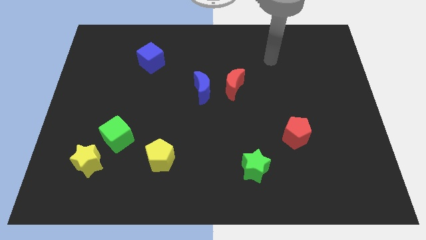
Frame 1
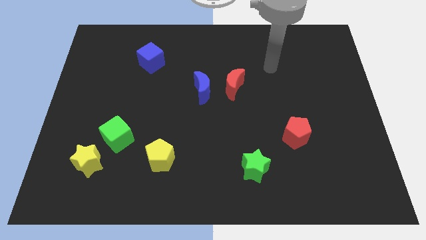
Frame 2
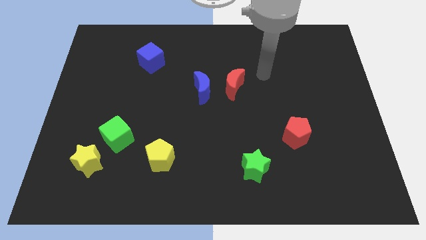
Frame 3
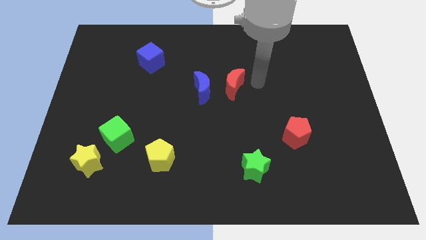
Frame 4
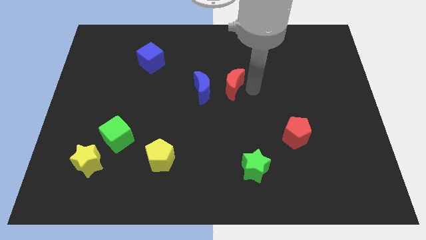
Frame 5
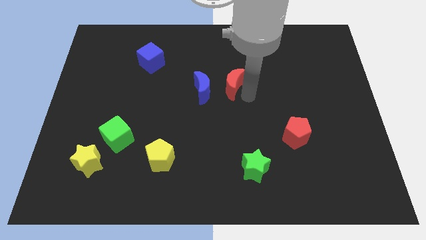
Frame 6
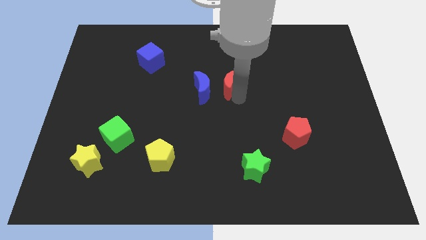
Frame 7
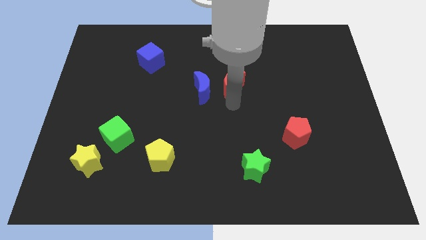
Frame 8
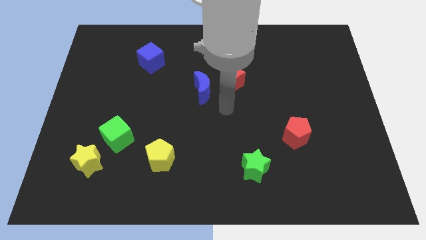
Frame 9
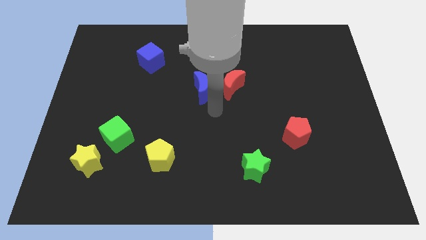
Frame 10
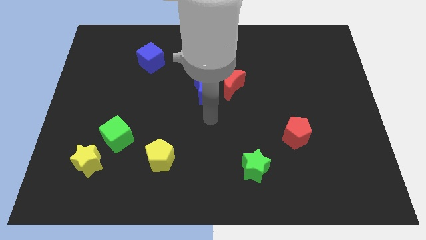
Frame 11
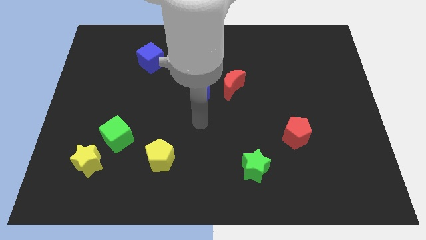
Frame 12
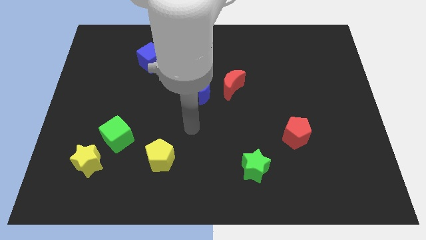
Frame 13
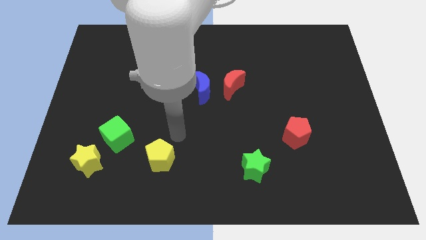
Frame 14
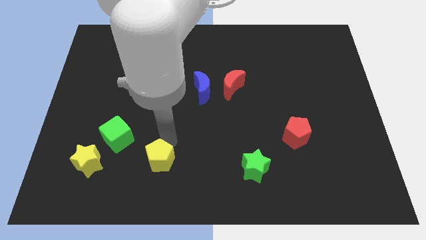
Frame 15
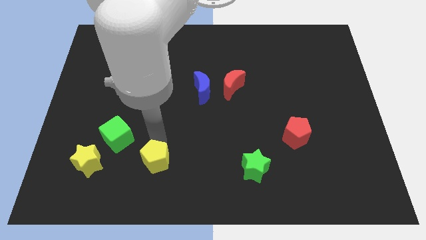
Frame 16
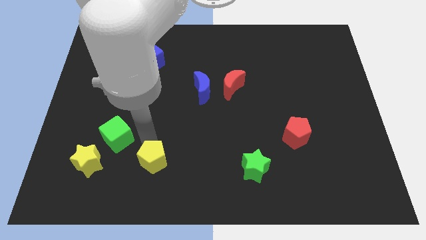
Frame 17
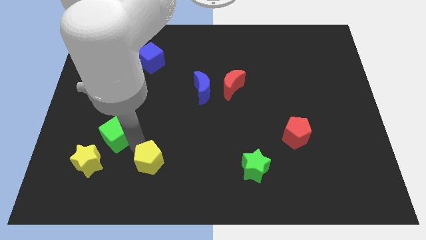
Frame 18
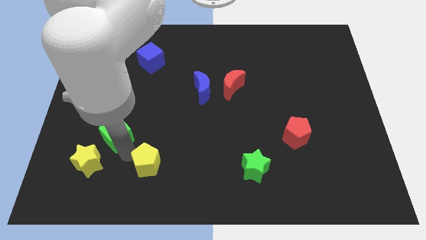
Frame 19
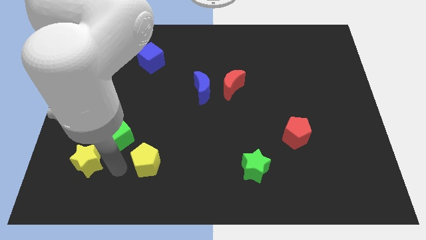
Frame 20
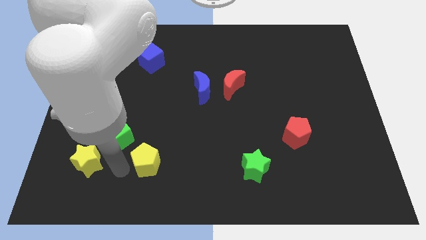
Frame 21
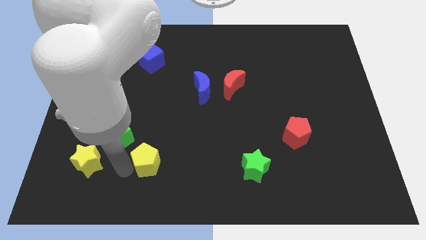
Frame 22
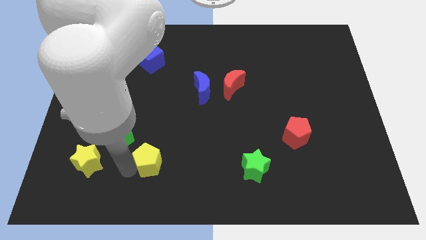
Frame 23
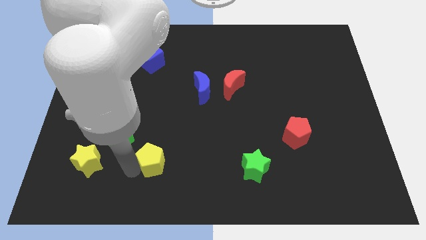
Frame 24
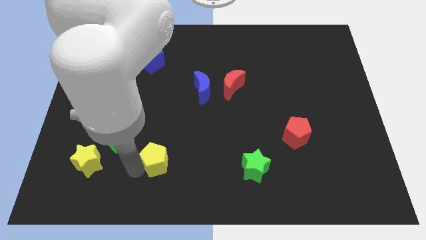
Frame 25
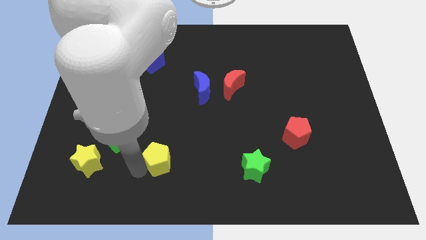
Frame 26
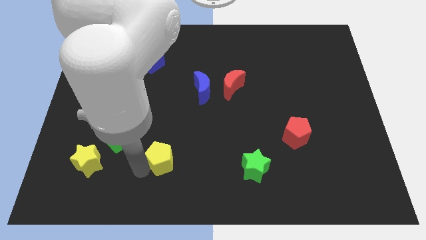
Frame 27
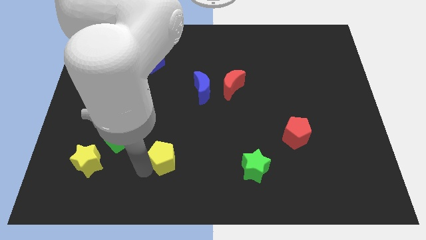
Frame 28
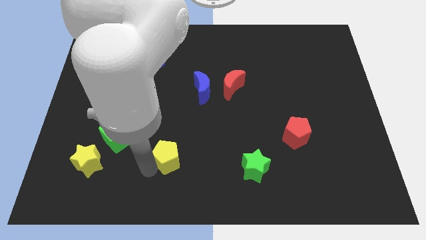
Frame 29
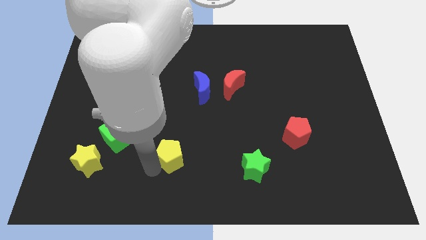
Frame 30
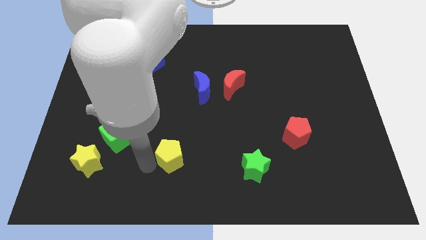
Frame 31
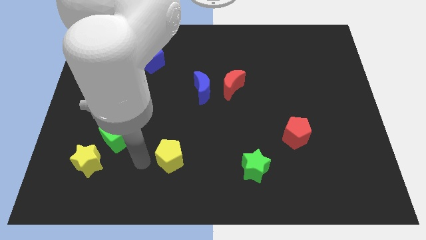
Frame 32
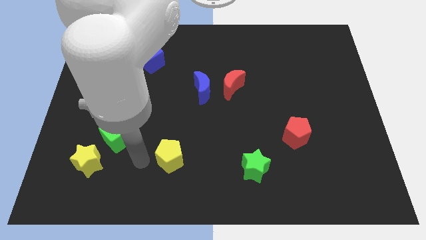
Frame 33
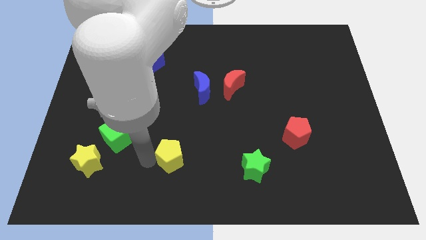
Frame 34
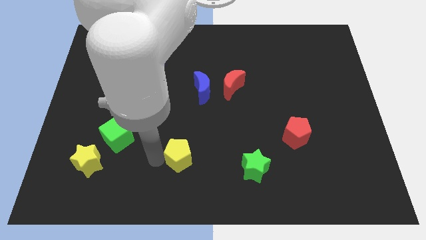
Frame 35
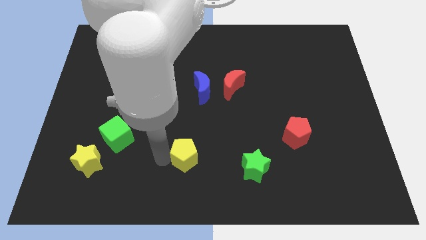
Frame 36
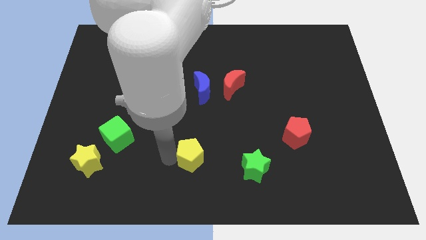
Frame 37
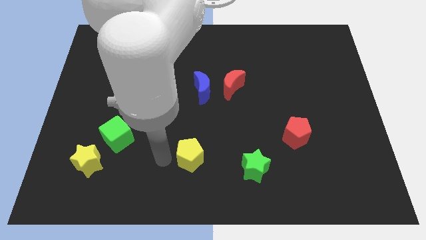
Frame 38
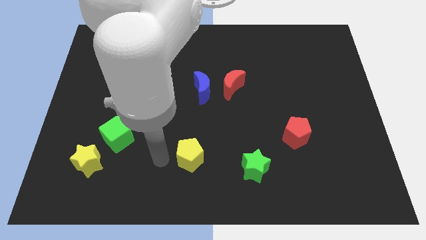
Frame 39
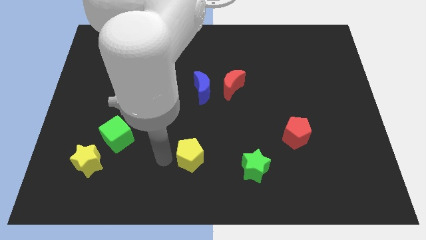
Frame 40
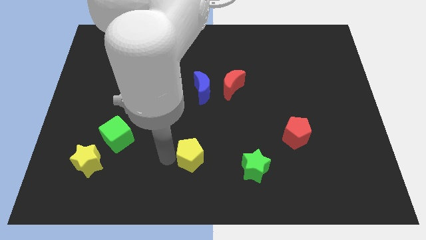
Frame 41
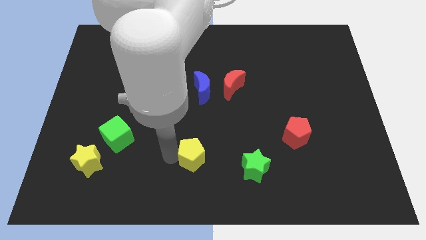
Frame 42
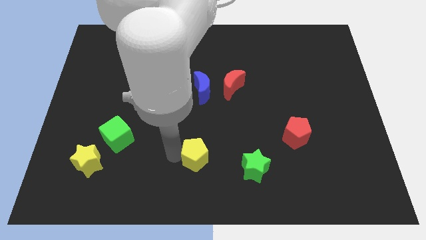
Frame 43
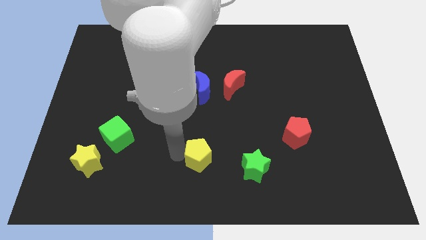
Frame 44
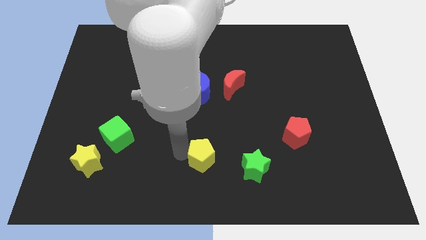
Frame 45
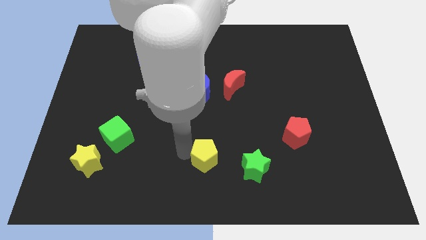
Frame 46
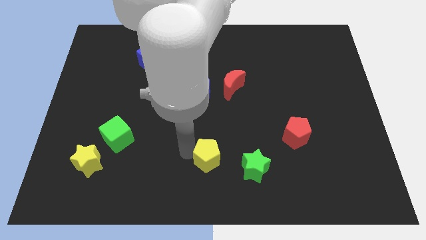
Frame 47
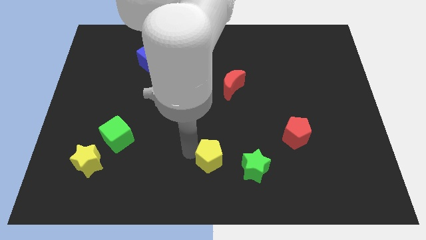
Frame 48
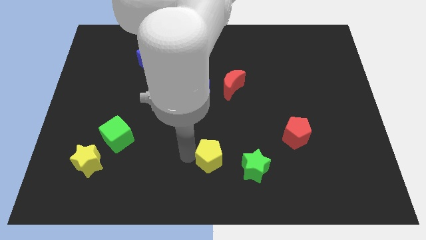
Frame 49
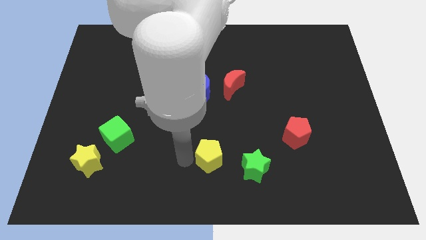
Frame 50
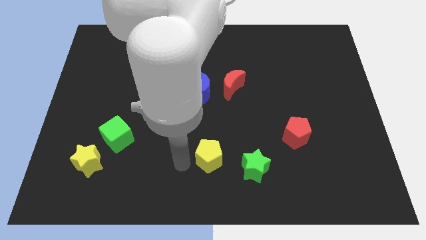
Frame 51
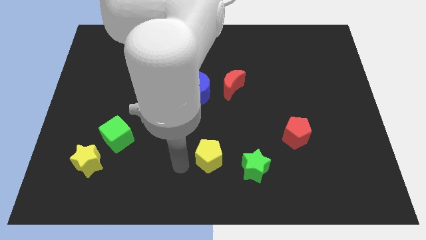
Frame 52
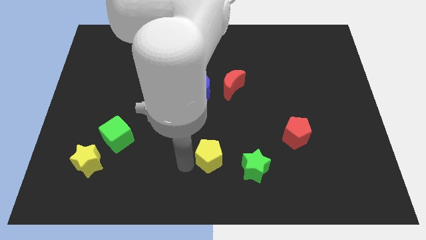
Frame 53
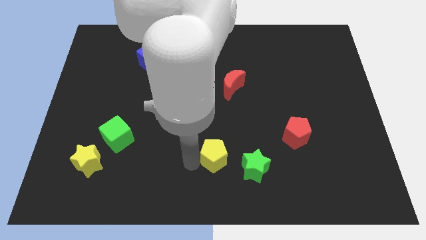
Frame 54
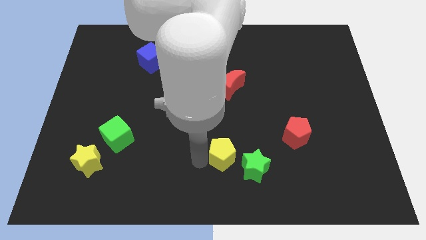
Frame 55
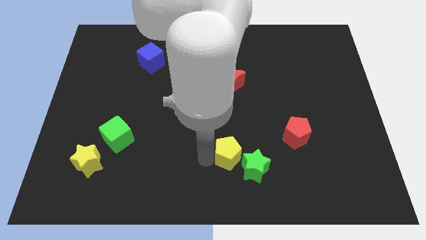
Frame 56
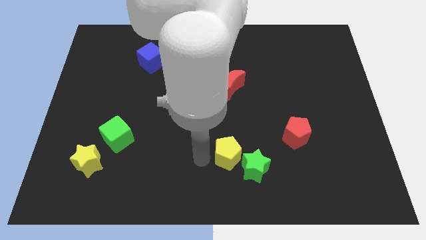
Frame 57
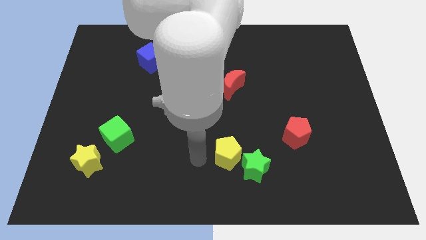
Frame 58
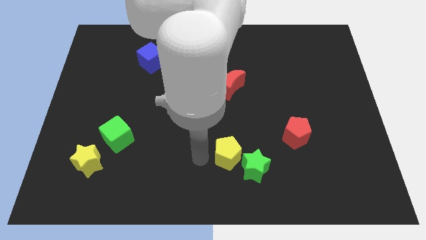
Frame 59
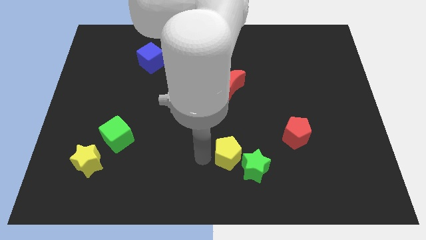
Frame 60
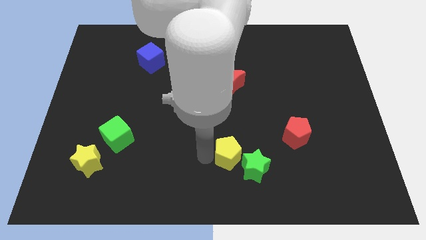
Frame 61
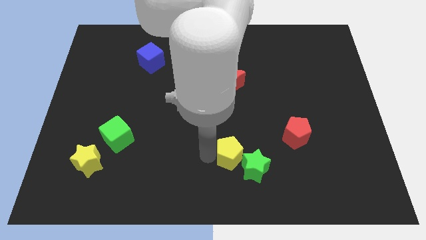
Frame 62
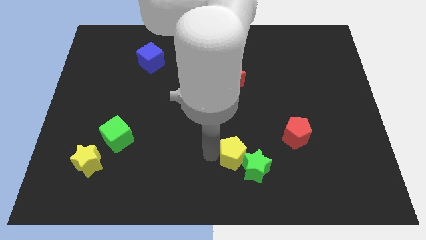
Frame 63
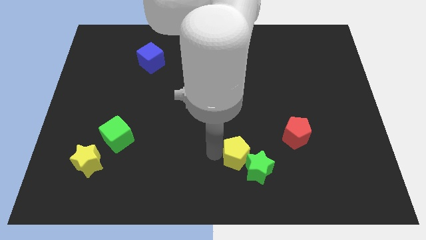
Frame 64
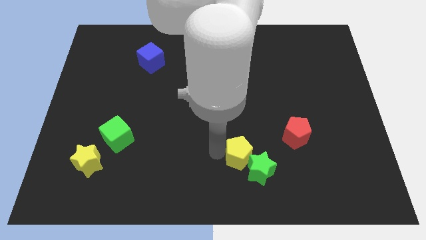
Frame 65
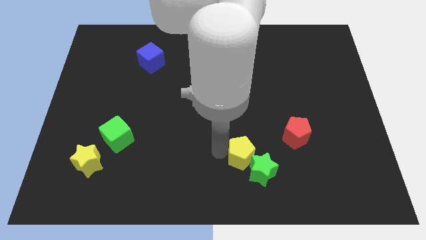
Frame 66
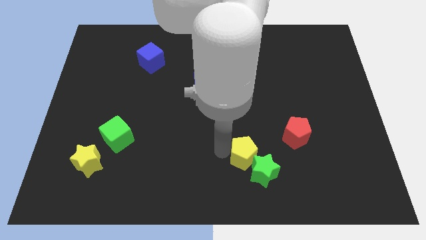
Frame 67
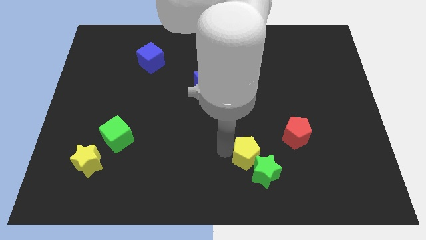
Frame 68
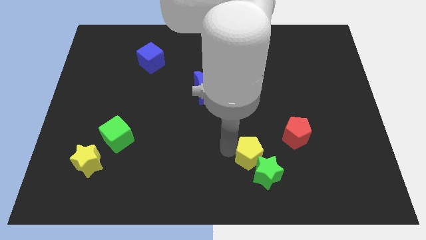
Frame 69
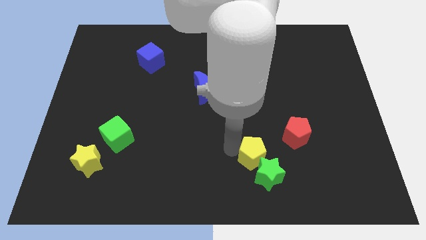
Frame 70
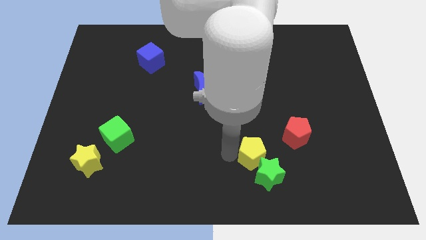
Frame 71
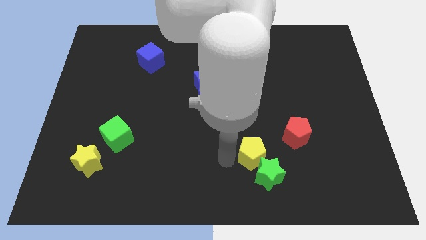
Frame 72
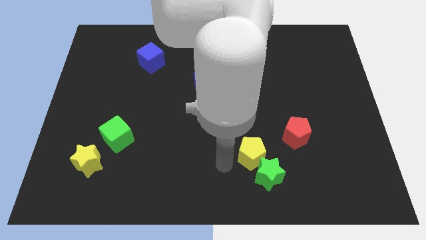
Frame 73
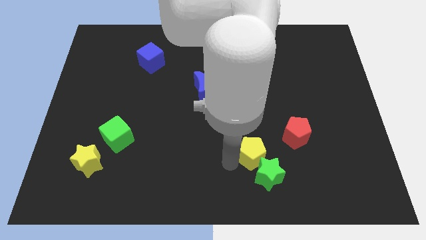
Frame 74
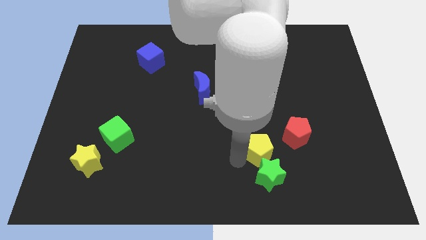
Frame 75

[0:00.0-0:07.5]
push the yellow pentagon right

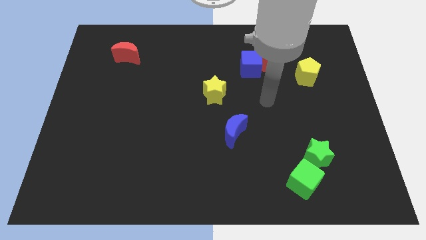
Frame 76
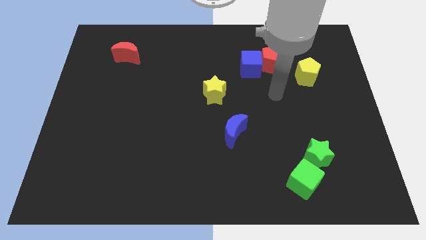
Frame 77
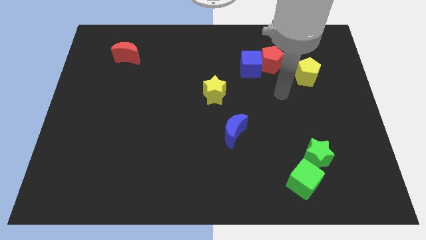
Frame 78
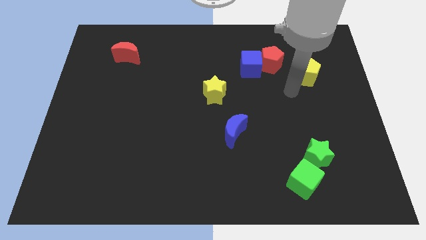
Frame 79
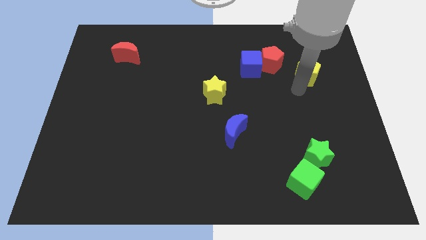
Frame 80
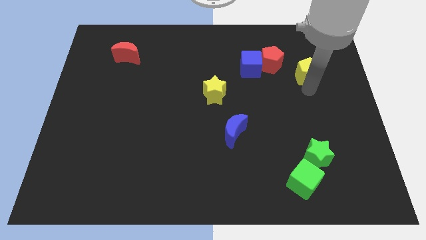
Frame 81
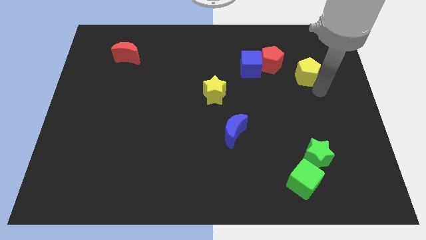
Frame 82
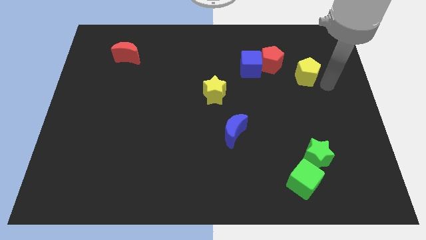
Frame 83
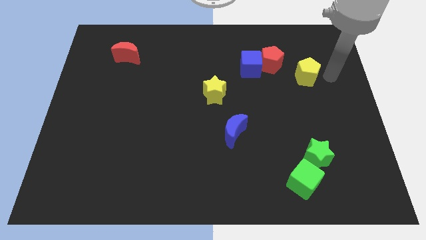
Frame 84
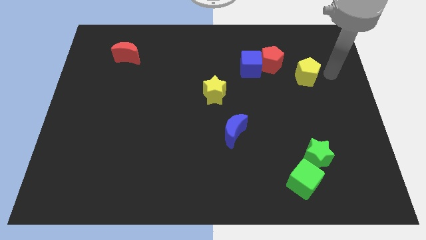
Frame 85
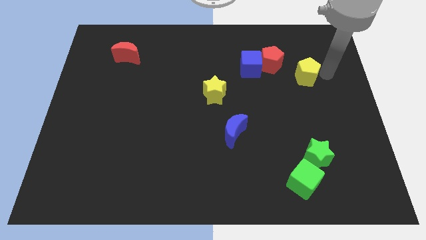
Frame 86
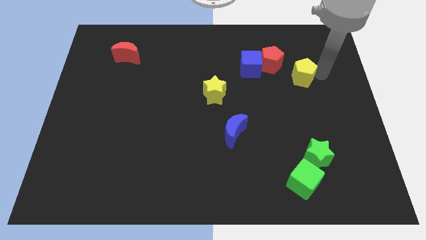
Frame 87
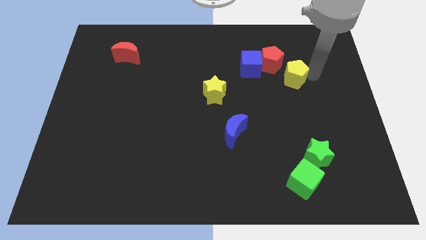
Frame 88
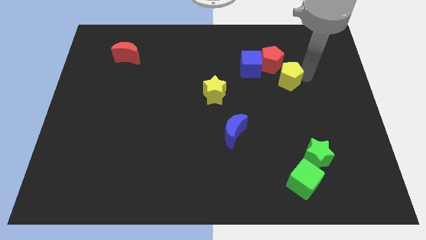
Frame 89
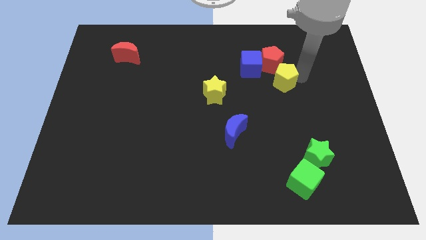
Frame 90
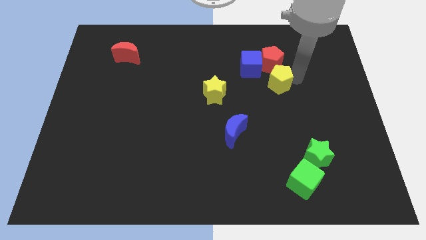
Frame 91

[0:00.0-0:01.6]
move the yellow pentagon to the left somewhat
